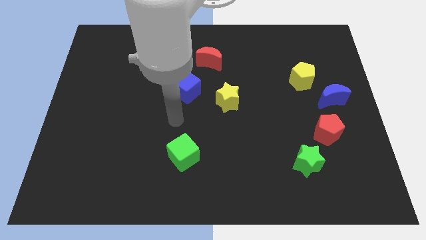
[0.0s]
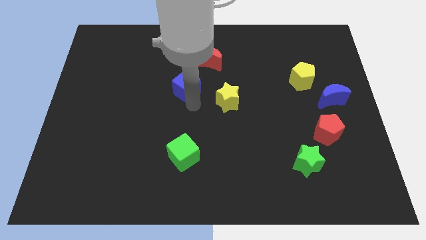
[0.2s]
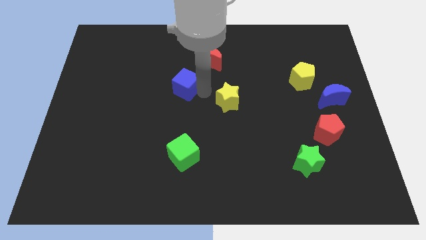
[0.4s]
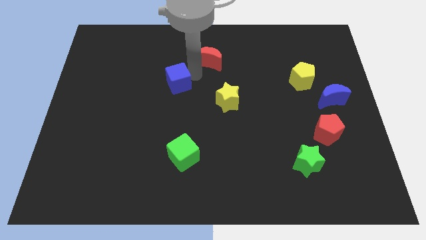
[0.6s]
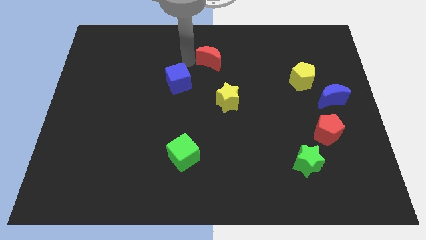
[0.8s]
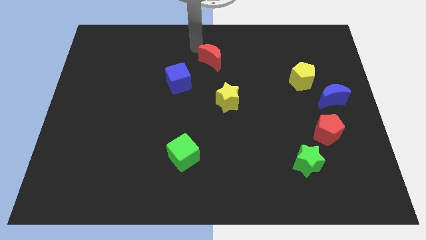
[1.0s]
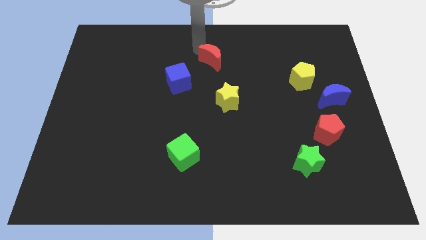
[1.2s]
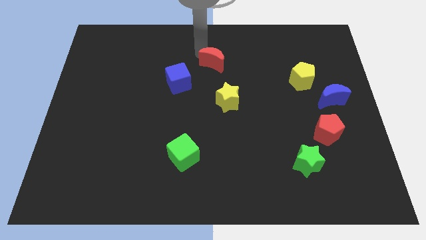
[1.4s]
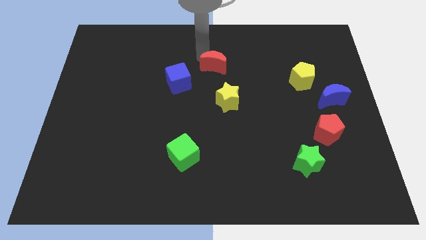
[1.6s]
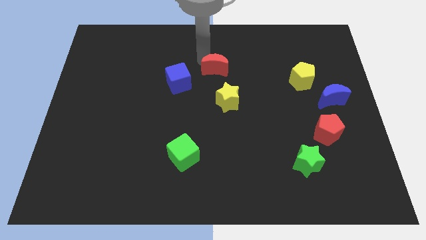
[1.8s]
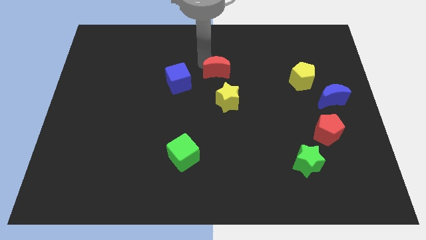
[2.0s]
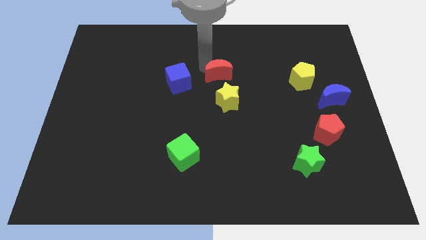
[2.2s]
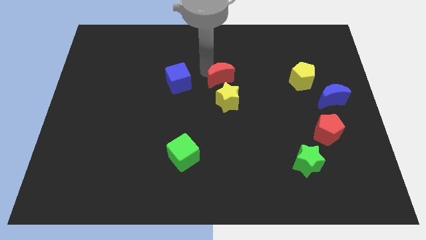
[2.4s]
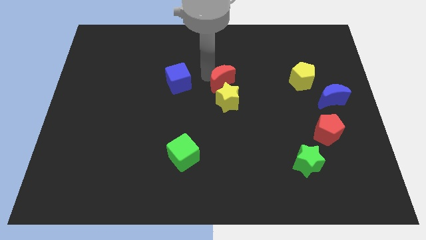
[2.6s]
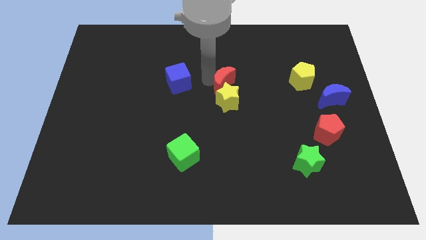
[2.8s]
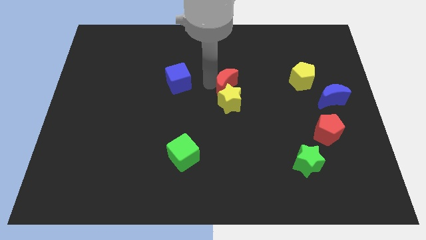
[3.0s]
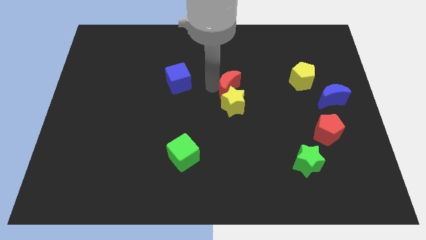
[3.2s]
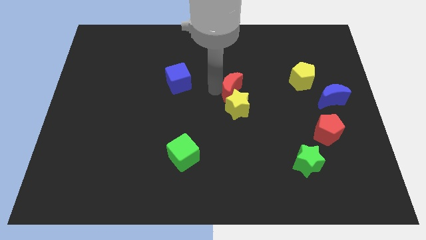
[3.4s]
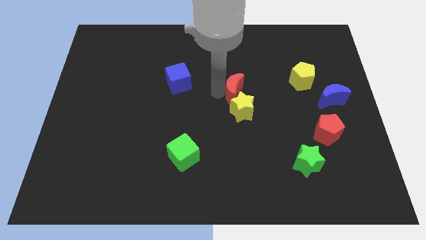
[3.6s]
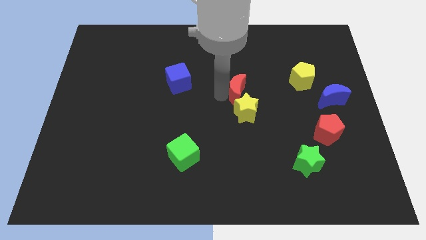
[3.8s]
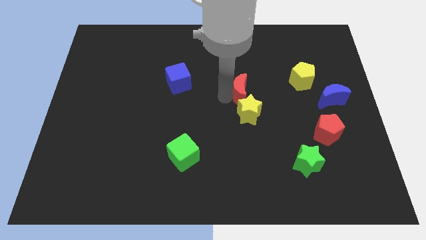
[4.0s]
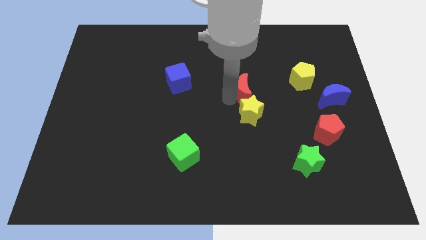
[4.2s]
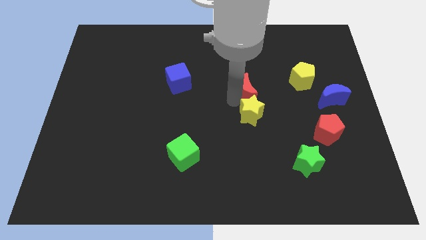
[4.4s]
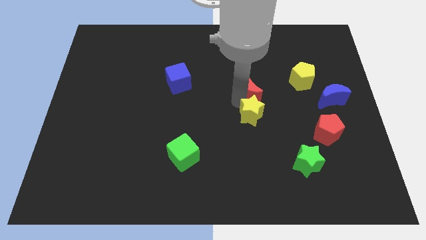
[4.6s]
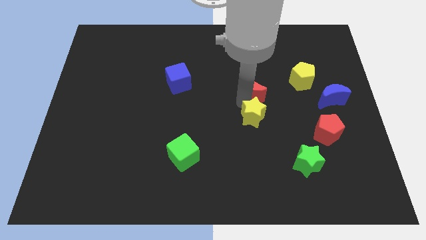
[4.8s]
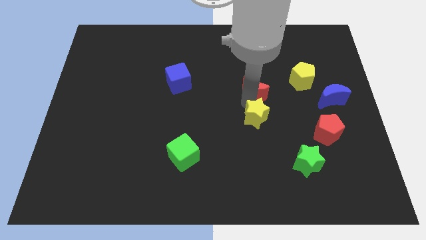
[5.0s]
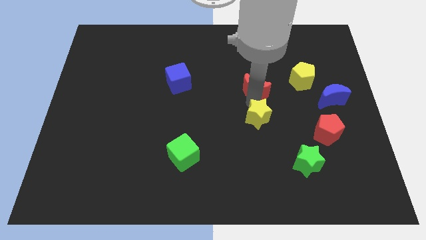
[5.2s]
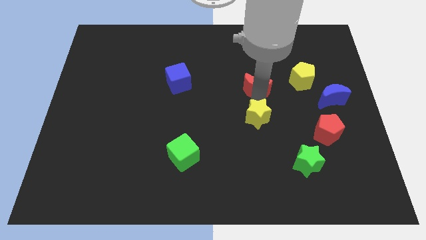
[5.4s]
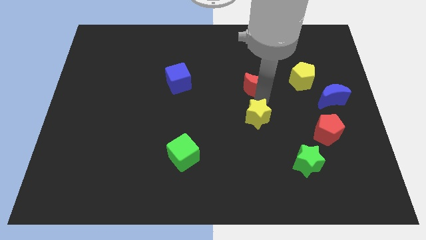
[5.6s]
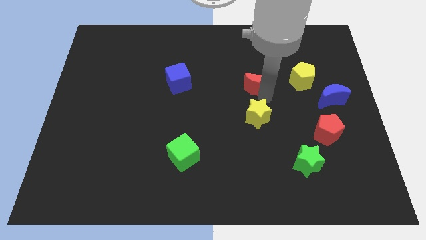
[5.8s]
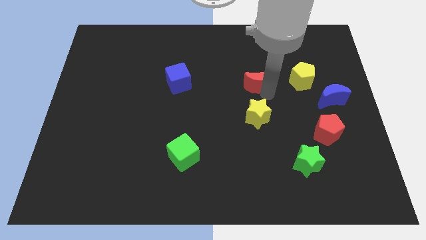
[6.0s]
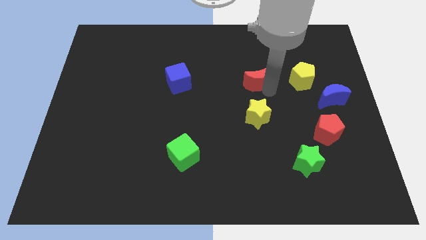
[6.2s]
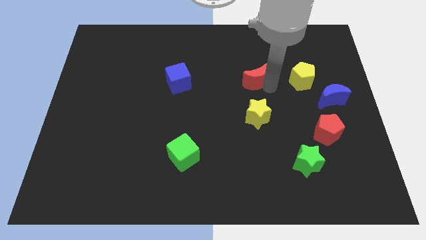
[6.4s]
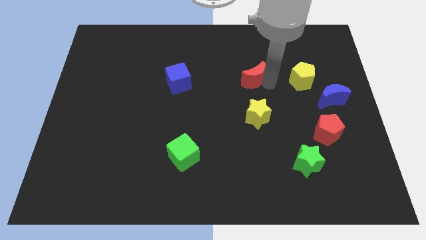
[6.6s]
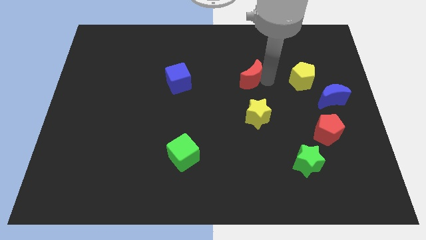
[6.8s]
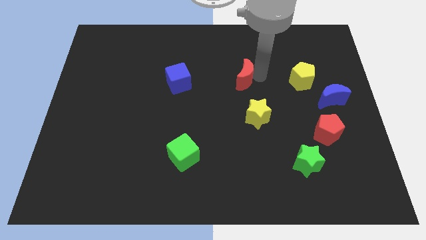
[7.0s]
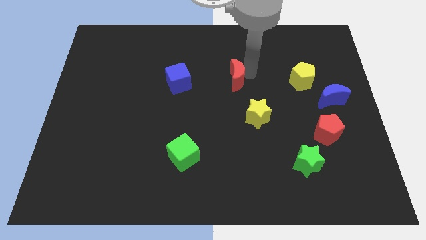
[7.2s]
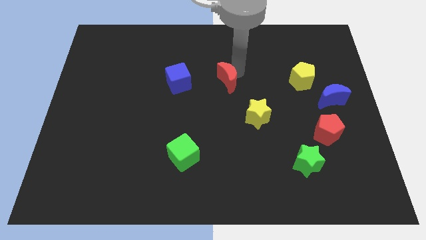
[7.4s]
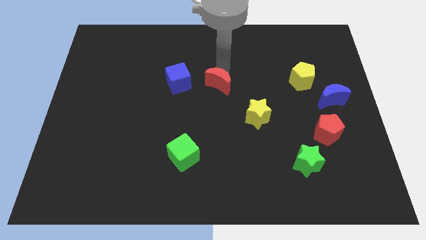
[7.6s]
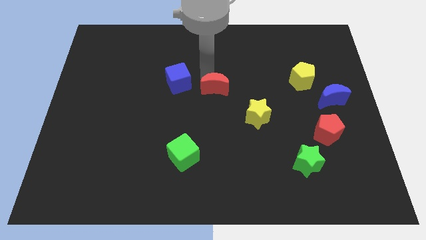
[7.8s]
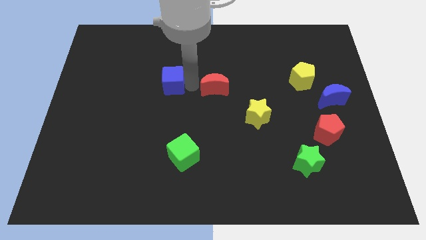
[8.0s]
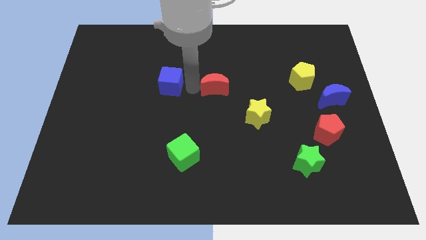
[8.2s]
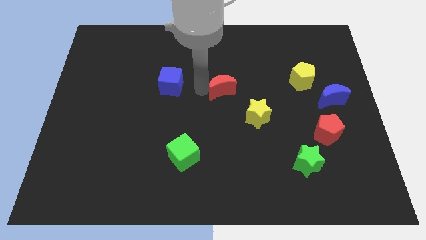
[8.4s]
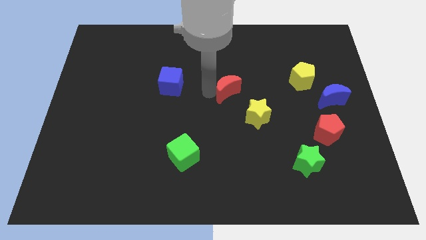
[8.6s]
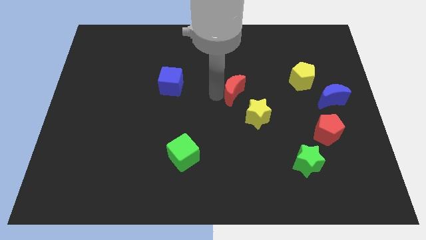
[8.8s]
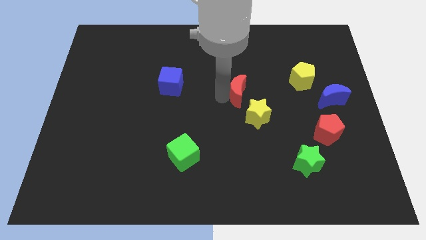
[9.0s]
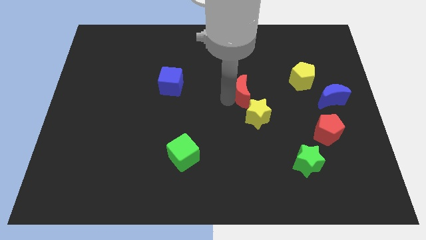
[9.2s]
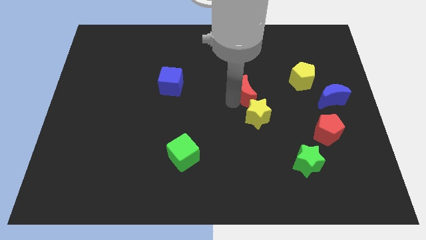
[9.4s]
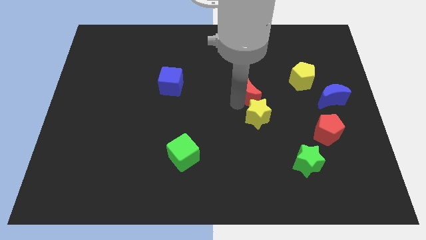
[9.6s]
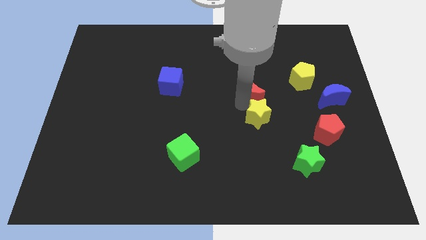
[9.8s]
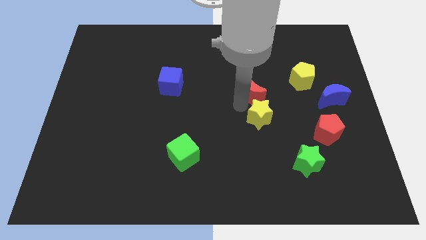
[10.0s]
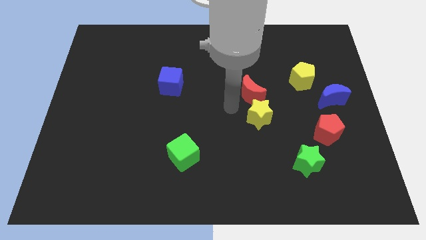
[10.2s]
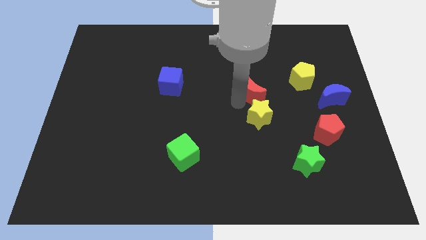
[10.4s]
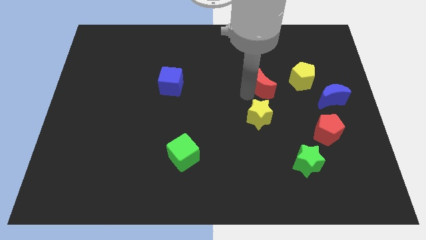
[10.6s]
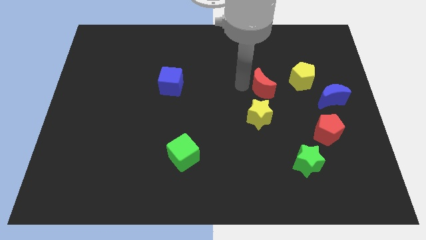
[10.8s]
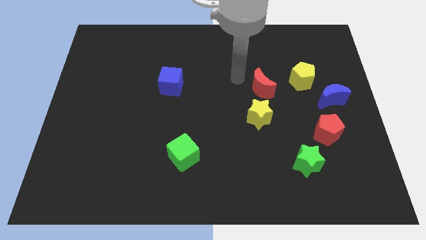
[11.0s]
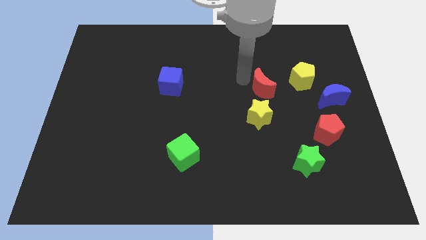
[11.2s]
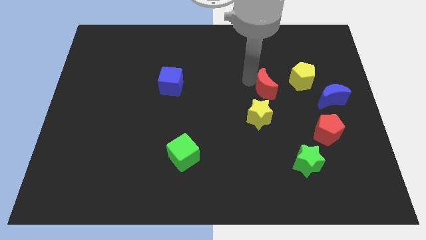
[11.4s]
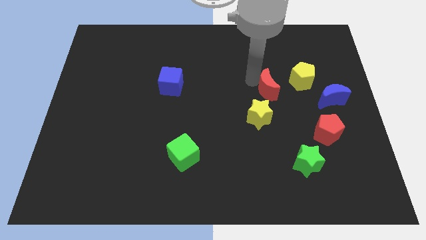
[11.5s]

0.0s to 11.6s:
push the red moon to the left of the blue moon

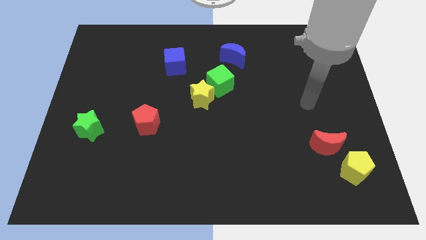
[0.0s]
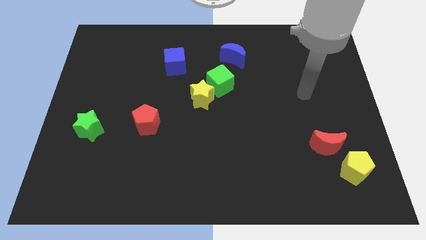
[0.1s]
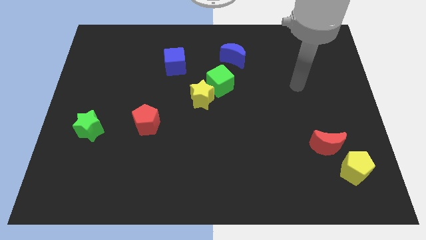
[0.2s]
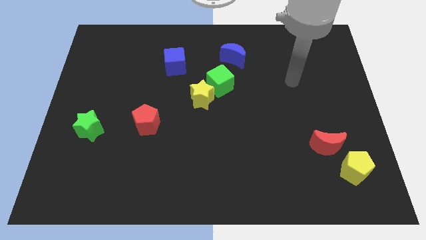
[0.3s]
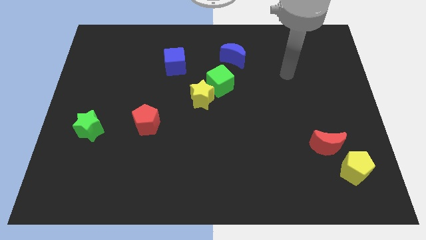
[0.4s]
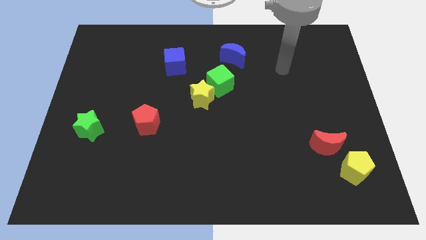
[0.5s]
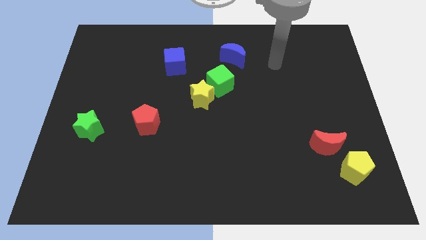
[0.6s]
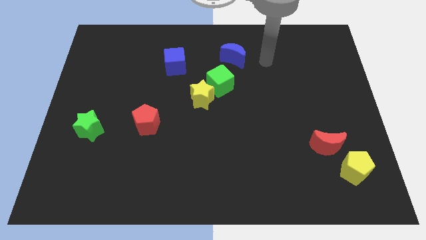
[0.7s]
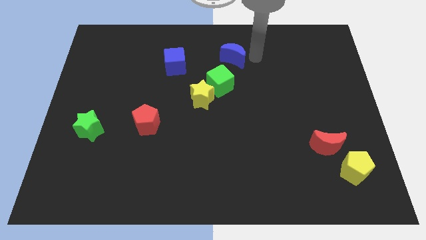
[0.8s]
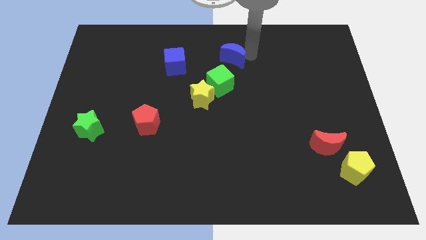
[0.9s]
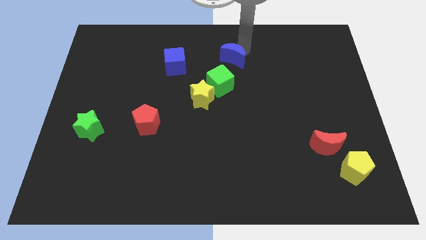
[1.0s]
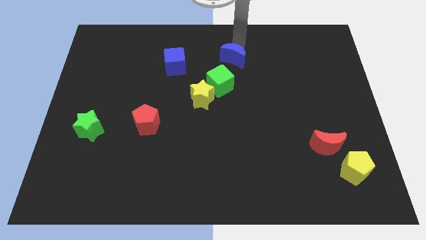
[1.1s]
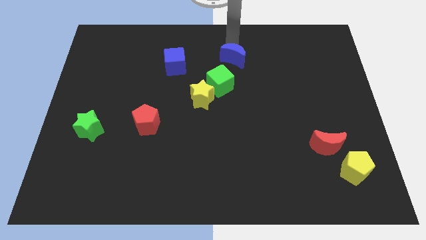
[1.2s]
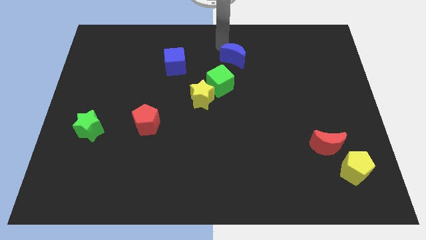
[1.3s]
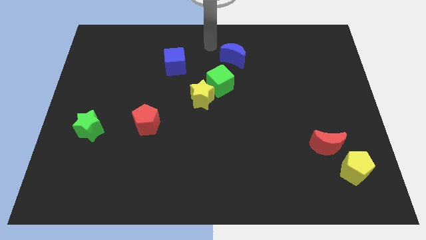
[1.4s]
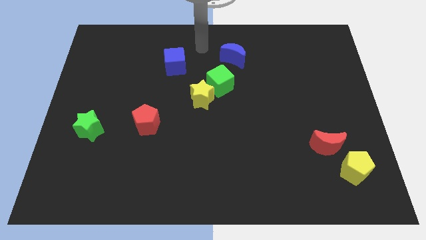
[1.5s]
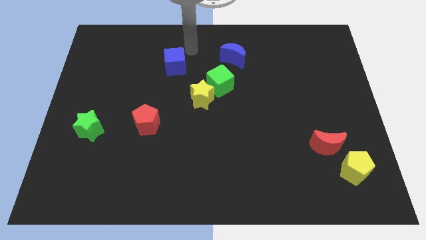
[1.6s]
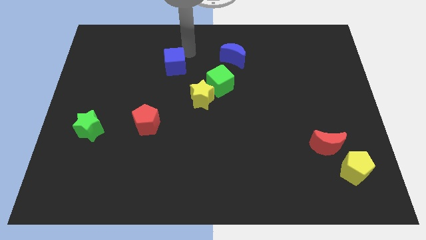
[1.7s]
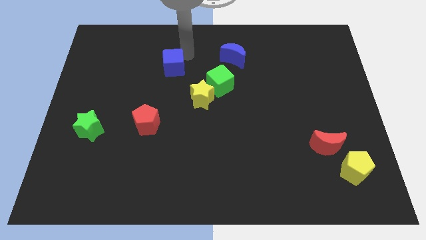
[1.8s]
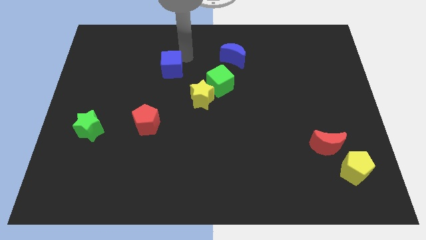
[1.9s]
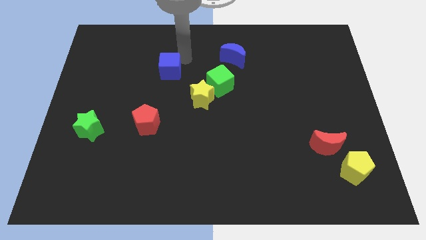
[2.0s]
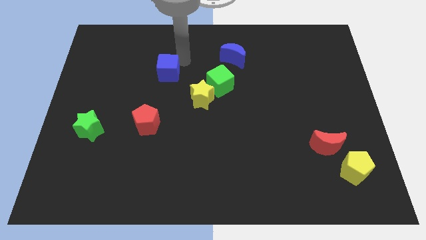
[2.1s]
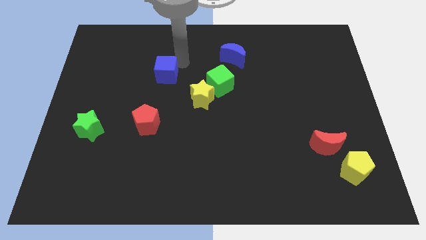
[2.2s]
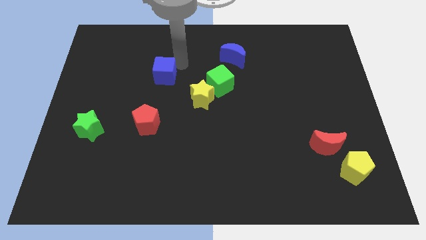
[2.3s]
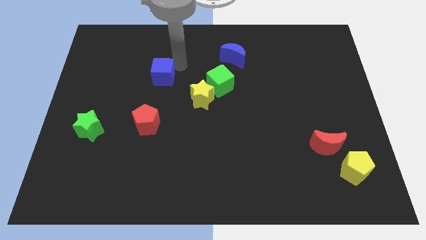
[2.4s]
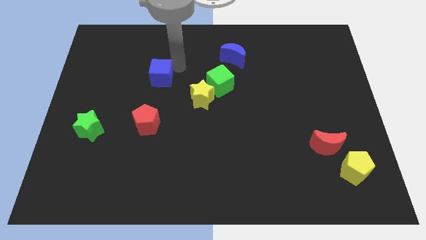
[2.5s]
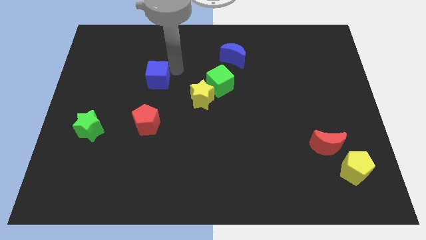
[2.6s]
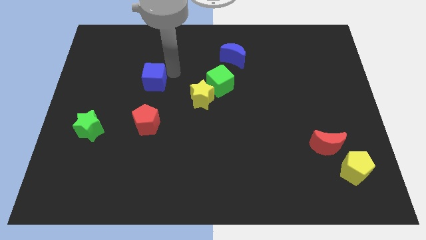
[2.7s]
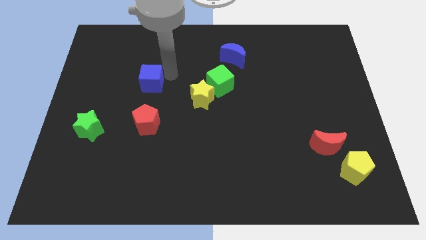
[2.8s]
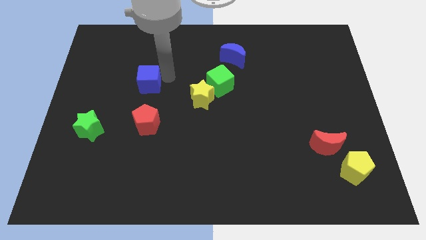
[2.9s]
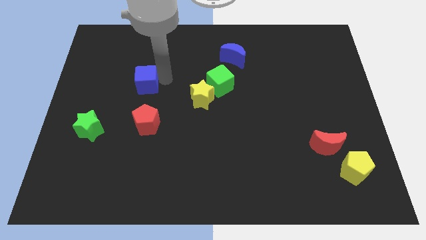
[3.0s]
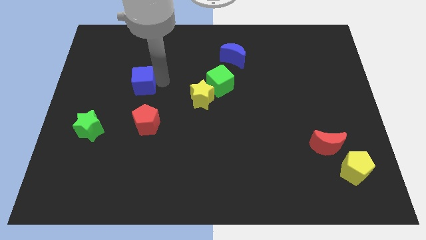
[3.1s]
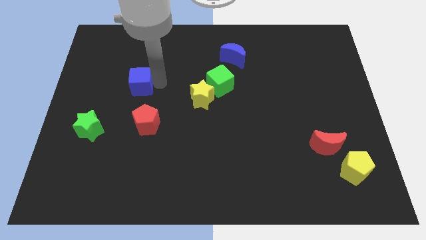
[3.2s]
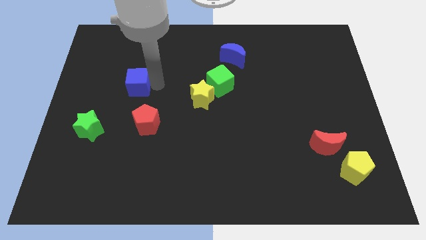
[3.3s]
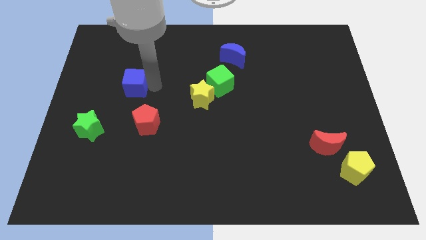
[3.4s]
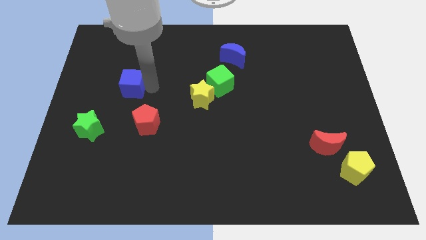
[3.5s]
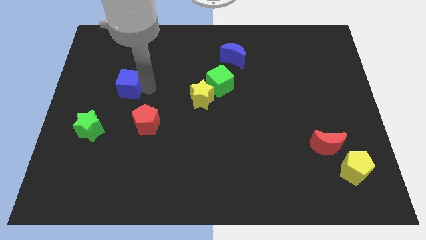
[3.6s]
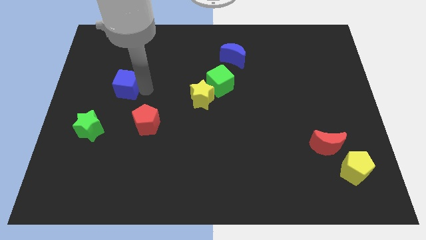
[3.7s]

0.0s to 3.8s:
move the blue cube to the top left of the red pentagon
